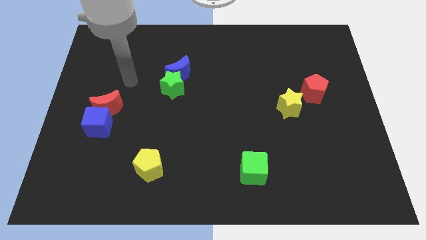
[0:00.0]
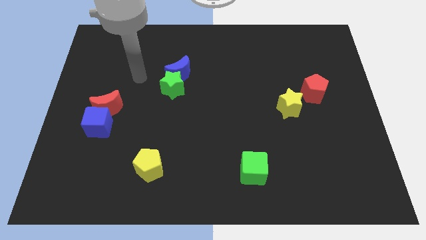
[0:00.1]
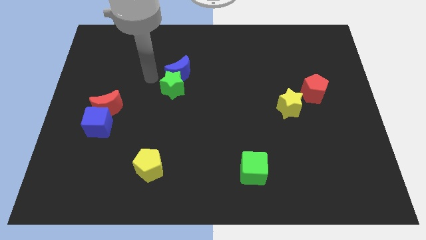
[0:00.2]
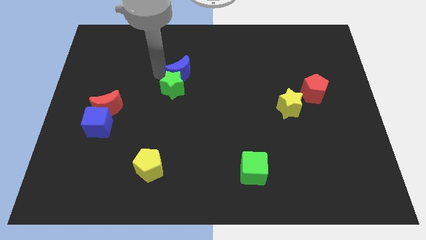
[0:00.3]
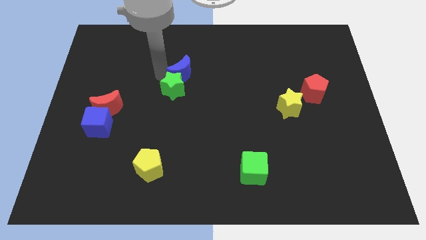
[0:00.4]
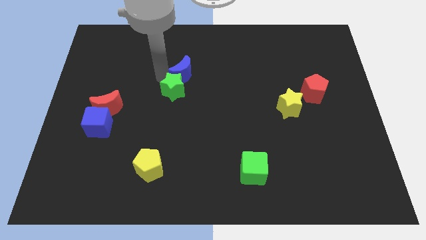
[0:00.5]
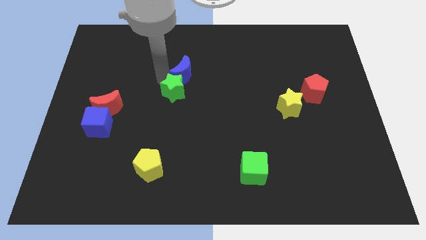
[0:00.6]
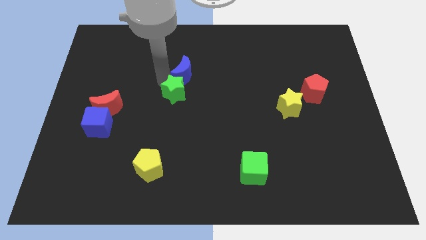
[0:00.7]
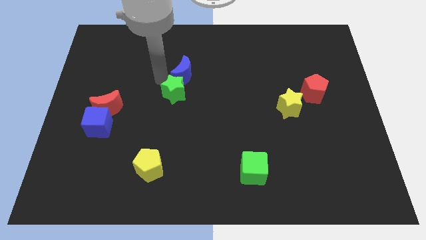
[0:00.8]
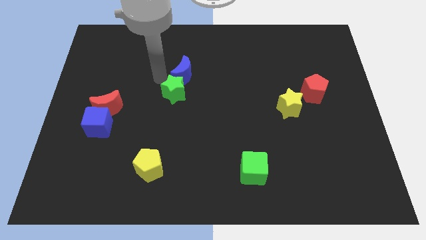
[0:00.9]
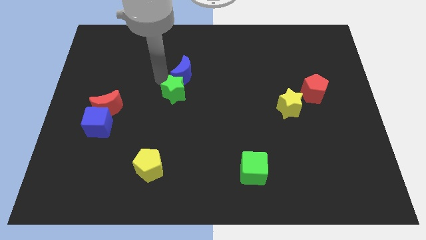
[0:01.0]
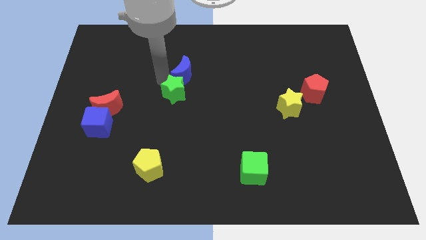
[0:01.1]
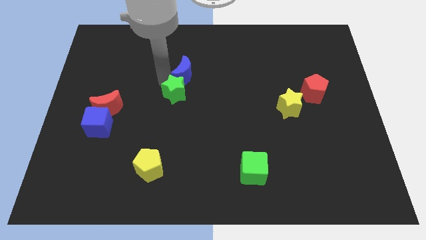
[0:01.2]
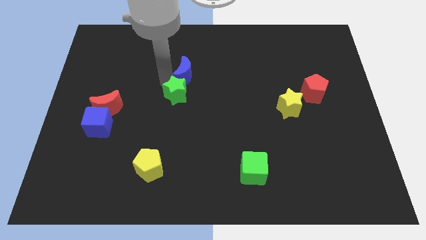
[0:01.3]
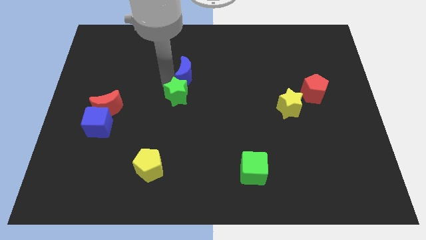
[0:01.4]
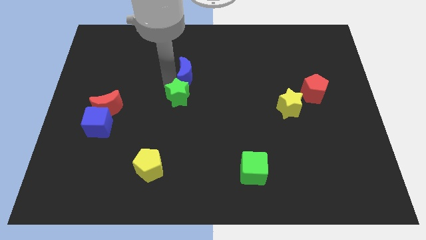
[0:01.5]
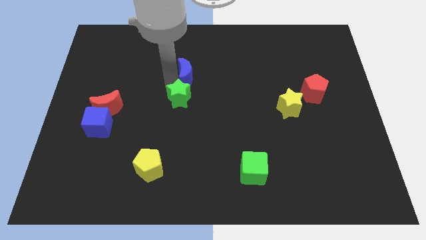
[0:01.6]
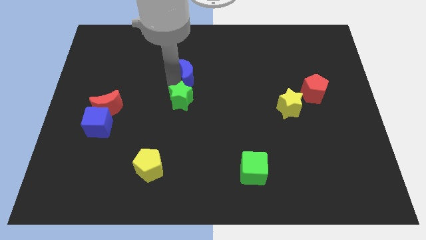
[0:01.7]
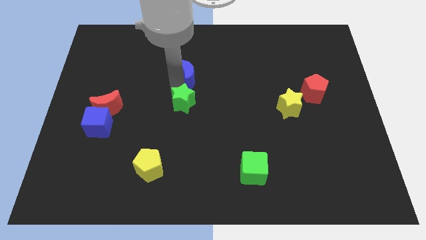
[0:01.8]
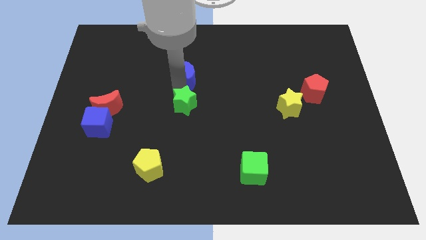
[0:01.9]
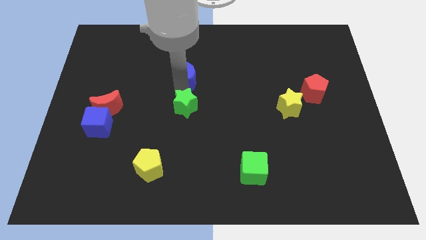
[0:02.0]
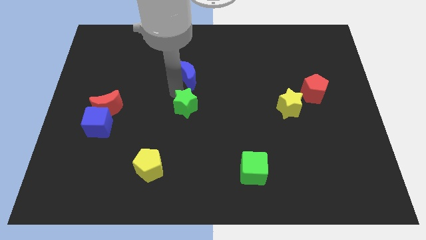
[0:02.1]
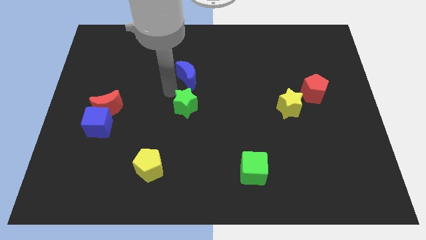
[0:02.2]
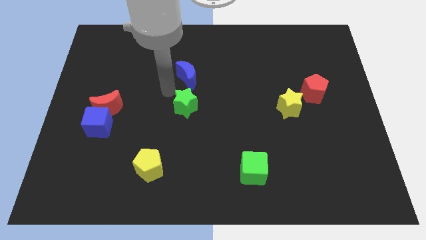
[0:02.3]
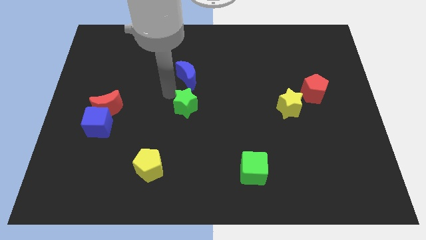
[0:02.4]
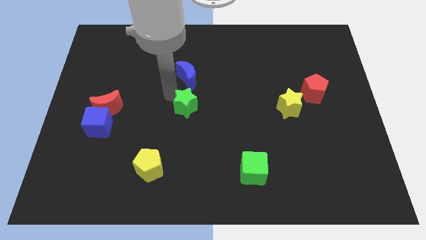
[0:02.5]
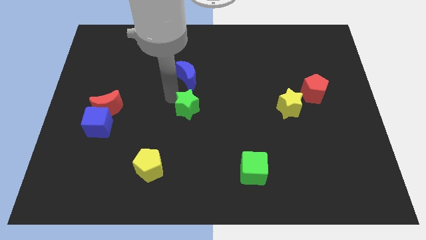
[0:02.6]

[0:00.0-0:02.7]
slightly move the green star downwards and to the right

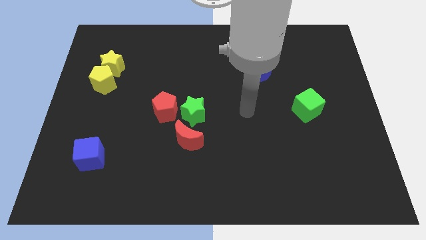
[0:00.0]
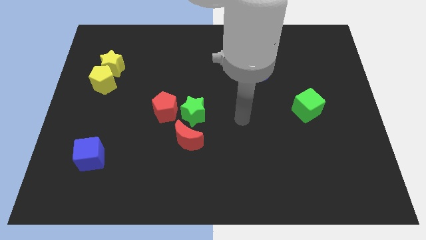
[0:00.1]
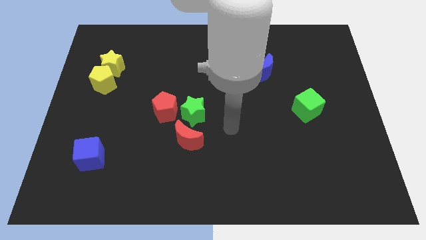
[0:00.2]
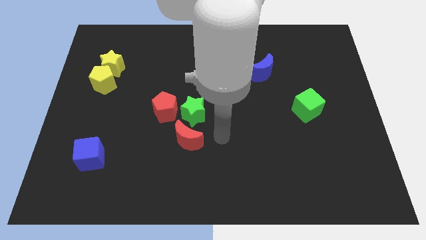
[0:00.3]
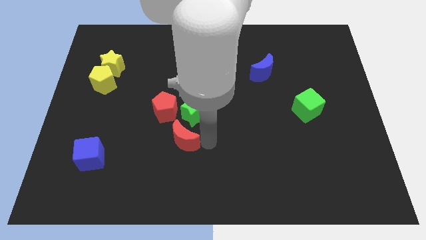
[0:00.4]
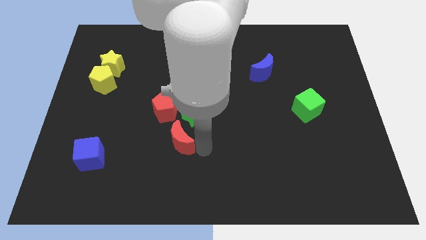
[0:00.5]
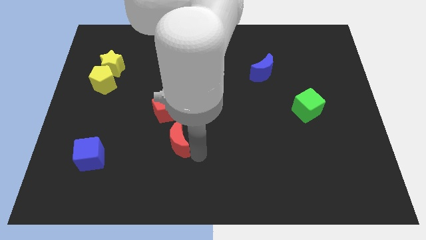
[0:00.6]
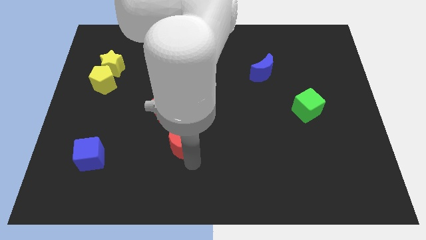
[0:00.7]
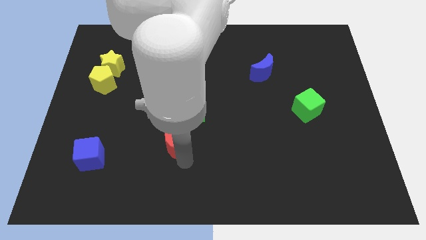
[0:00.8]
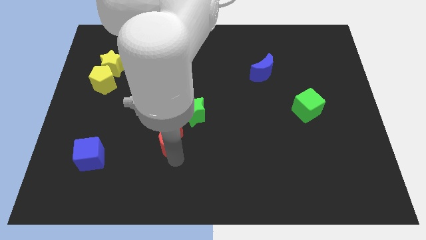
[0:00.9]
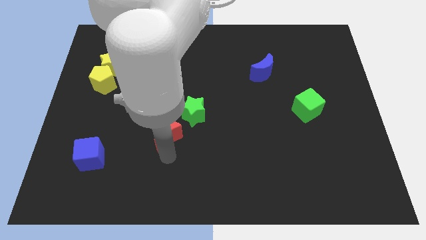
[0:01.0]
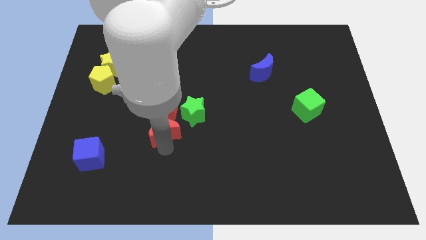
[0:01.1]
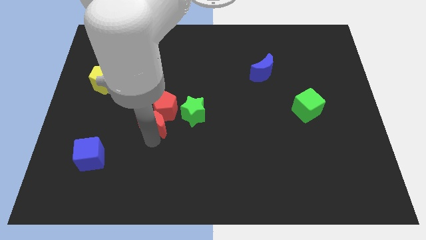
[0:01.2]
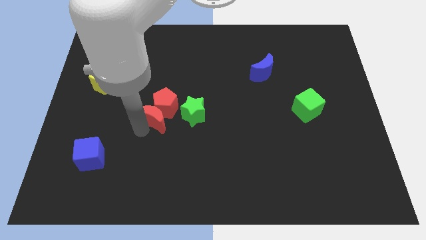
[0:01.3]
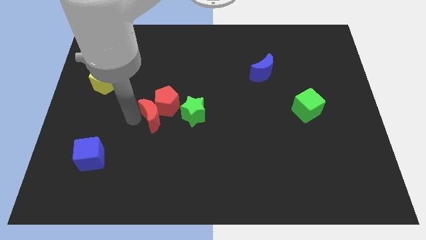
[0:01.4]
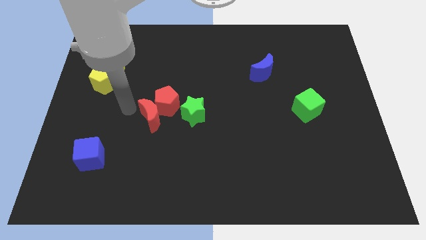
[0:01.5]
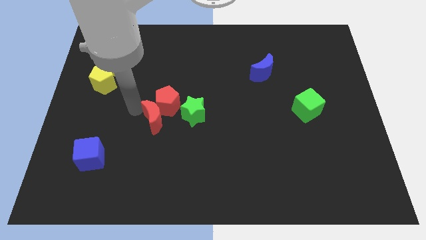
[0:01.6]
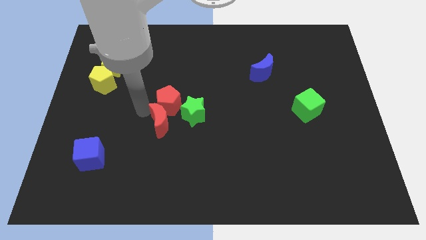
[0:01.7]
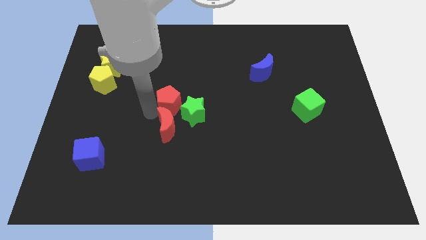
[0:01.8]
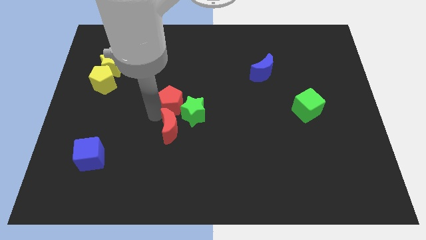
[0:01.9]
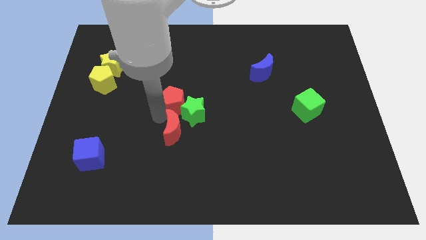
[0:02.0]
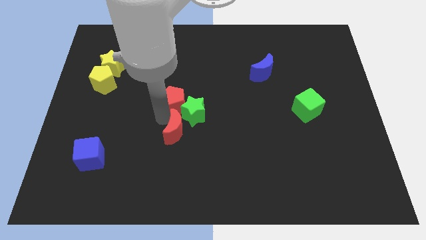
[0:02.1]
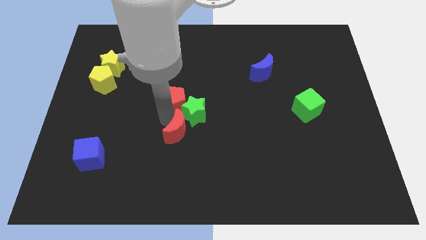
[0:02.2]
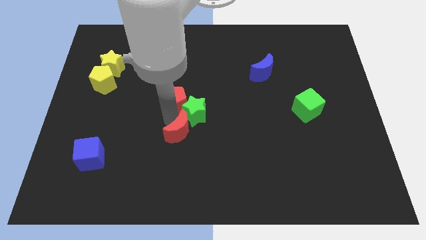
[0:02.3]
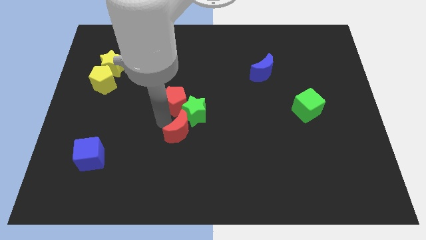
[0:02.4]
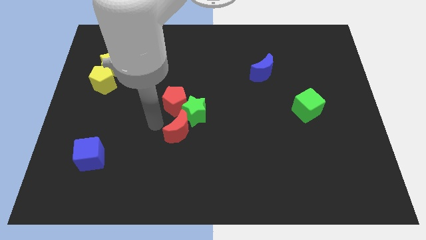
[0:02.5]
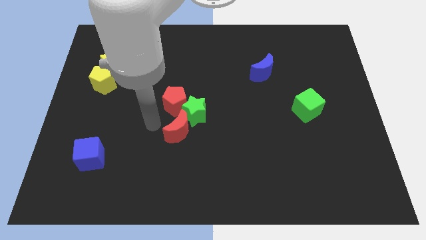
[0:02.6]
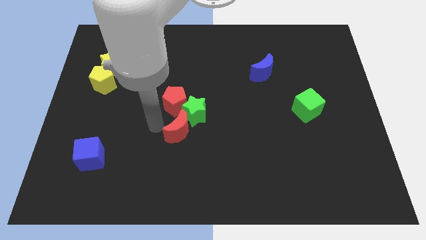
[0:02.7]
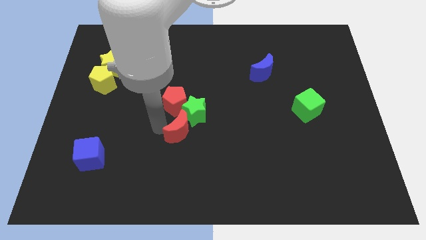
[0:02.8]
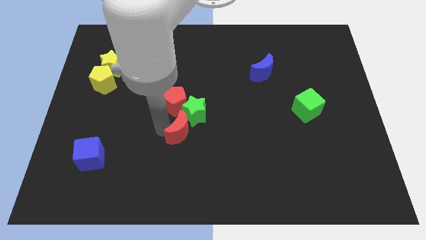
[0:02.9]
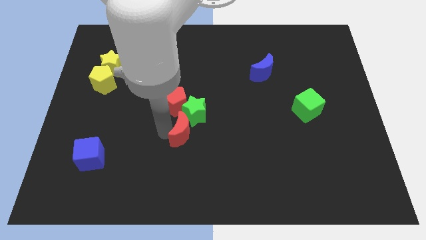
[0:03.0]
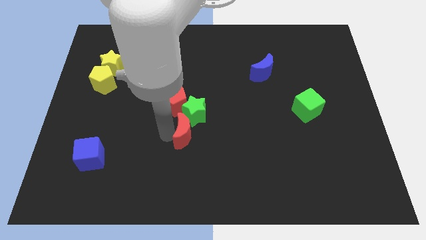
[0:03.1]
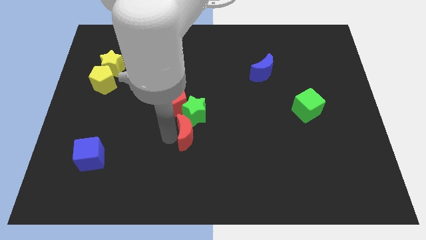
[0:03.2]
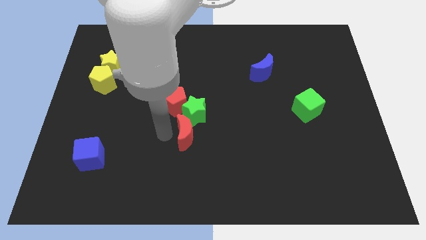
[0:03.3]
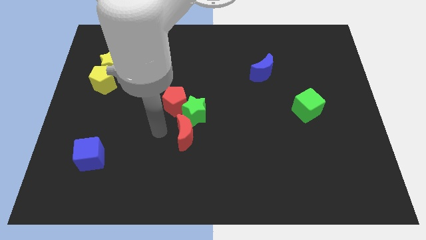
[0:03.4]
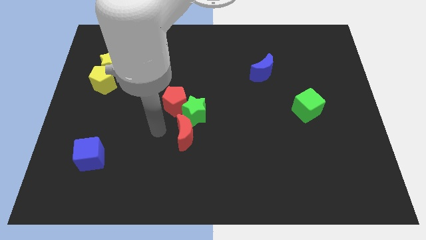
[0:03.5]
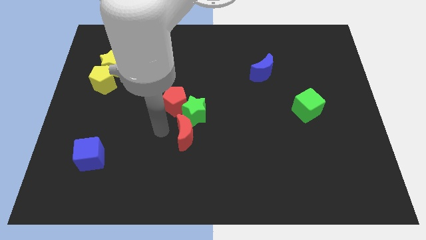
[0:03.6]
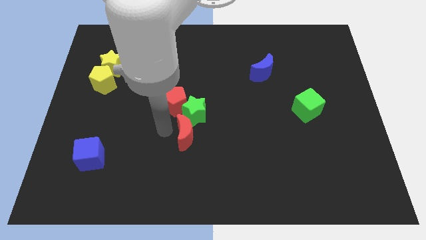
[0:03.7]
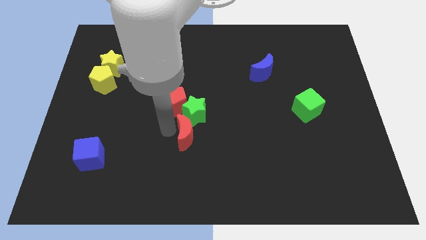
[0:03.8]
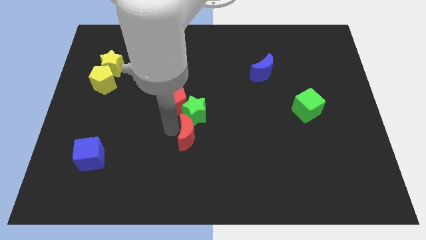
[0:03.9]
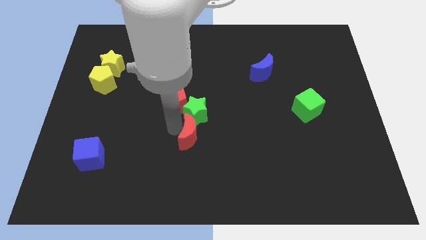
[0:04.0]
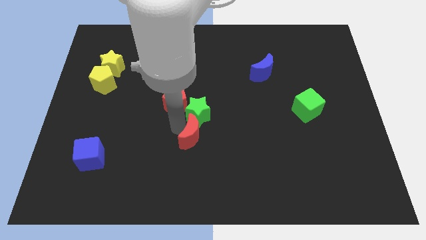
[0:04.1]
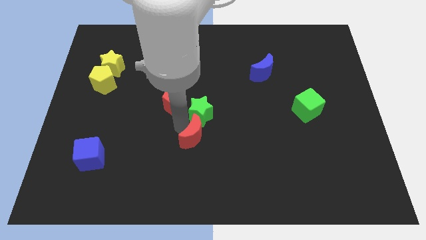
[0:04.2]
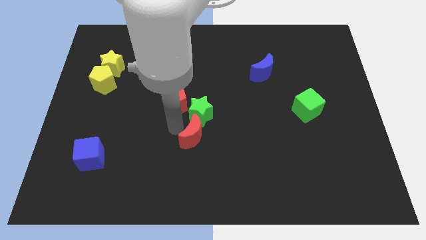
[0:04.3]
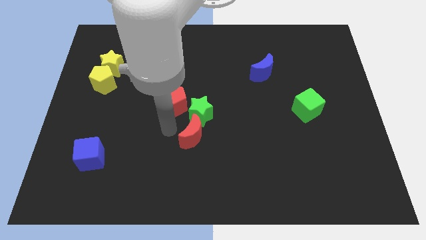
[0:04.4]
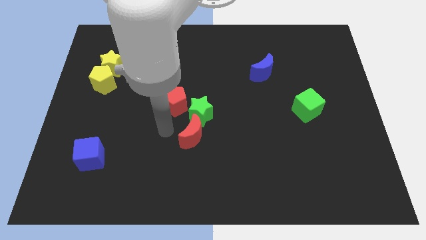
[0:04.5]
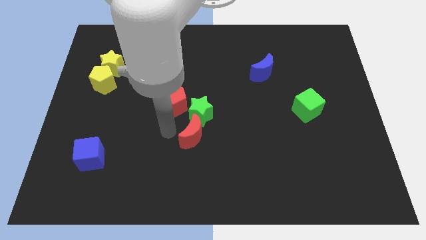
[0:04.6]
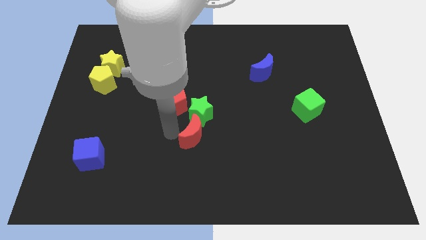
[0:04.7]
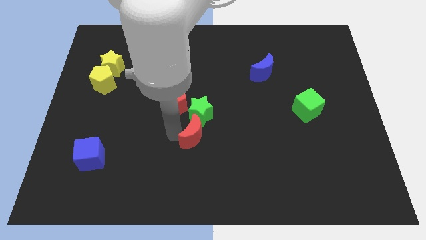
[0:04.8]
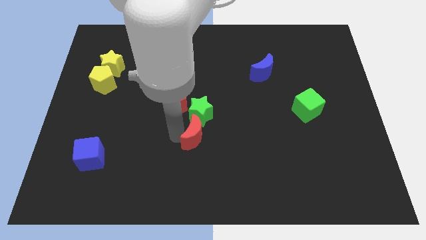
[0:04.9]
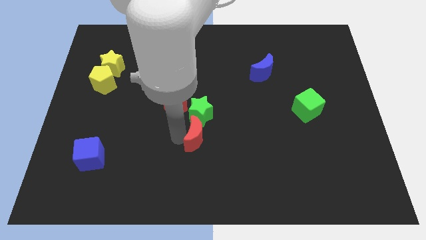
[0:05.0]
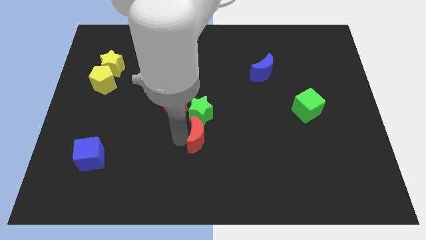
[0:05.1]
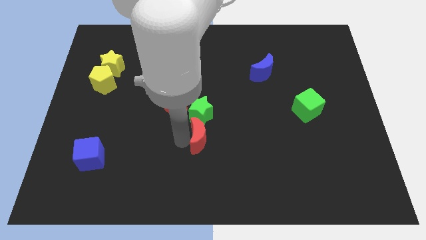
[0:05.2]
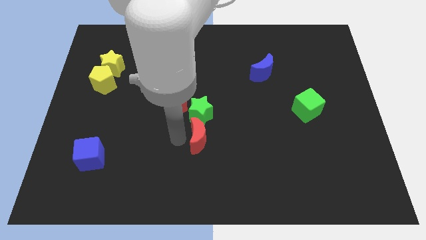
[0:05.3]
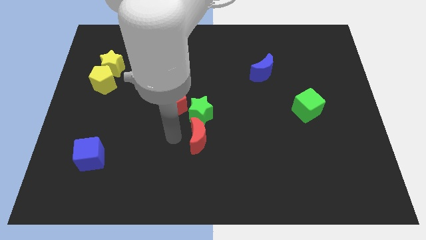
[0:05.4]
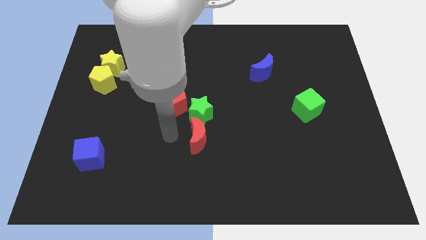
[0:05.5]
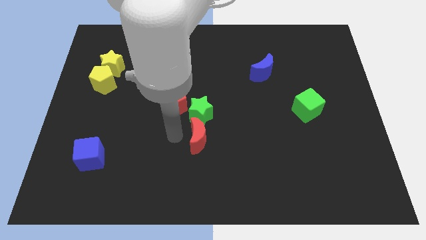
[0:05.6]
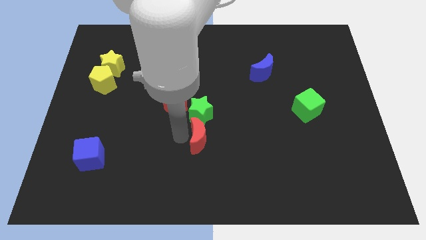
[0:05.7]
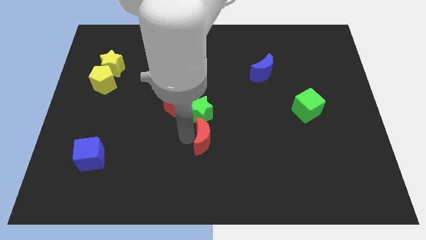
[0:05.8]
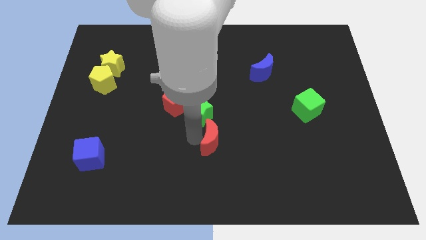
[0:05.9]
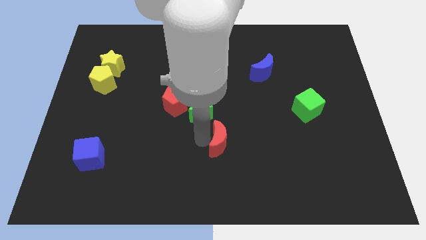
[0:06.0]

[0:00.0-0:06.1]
push the red moon a bit to the right
